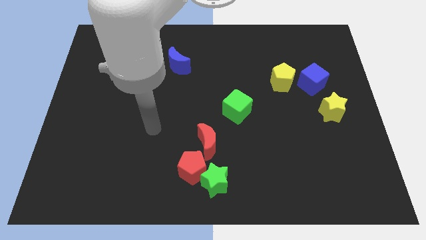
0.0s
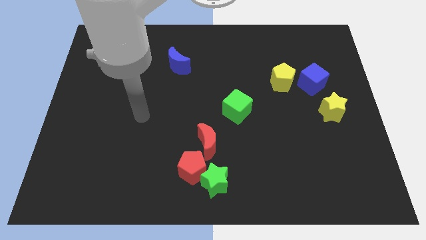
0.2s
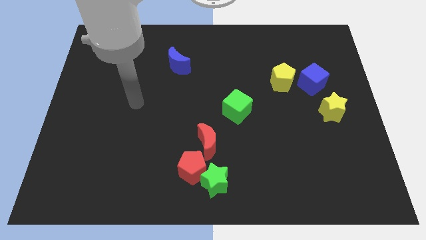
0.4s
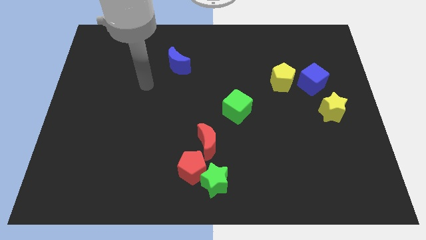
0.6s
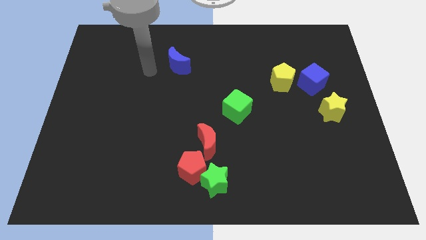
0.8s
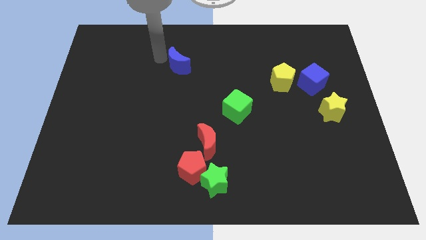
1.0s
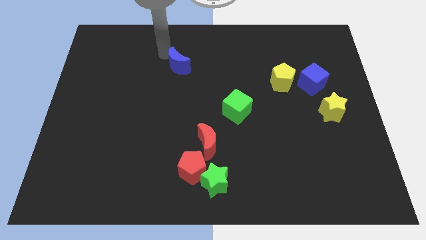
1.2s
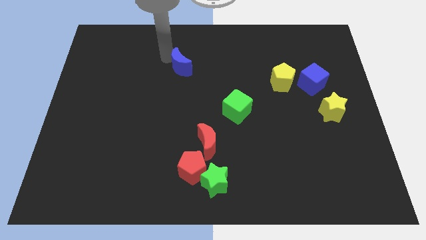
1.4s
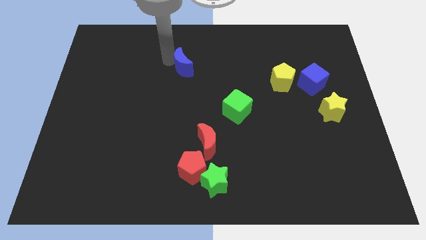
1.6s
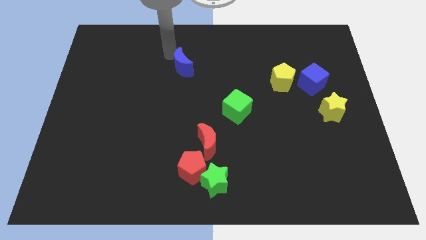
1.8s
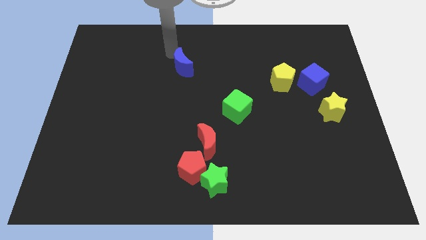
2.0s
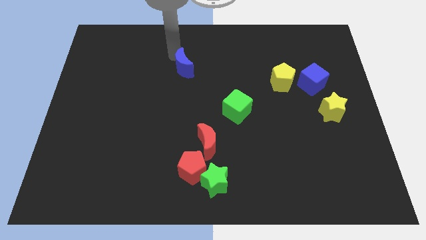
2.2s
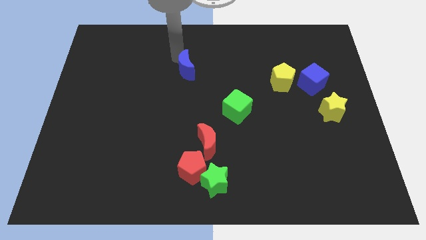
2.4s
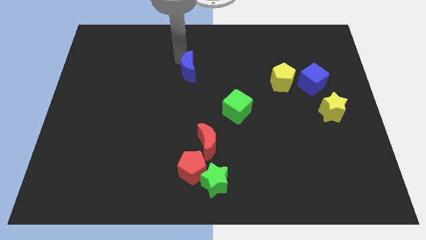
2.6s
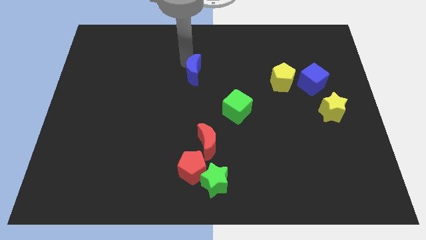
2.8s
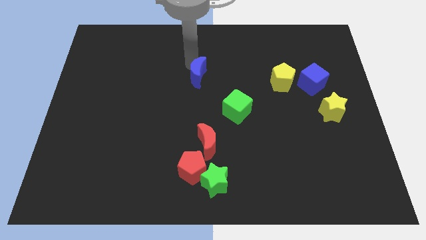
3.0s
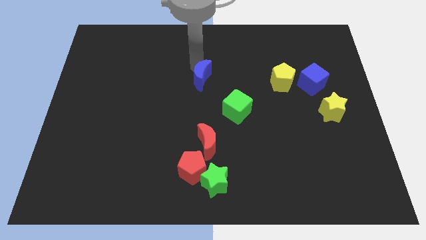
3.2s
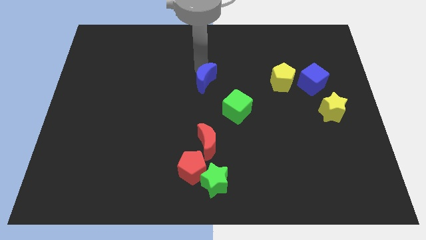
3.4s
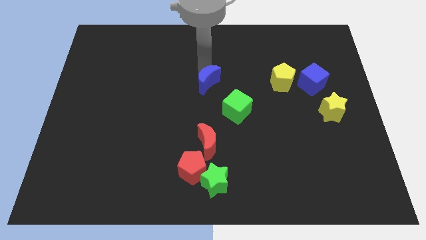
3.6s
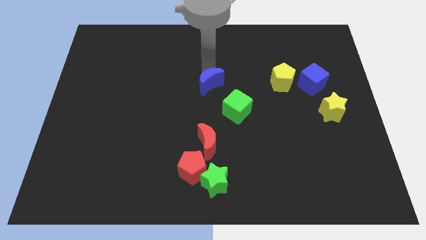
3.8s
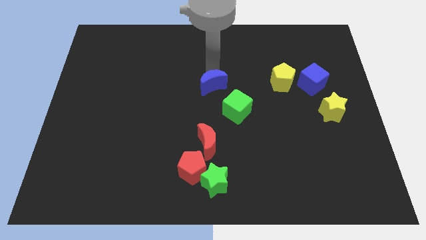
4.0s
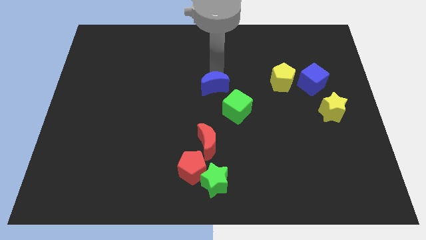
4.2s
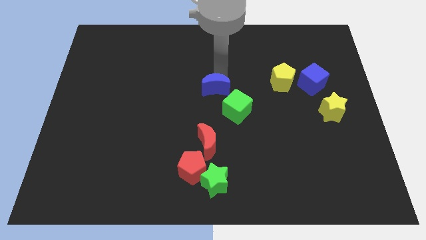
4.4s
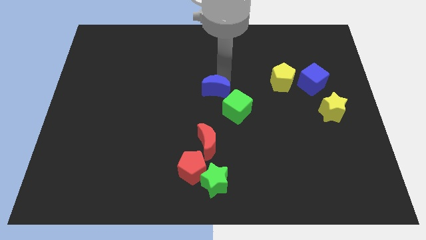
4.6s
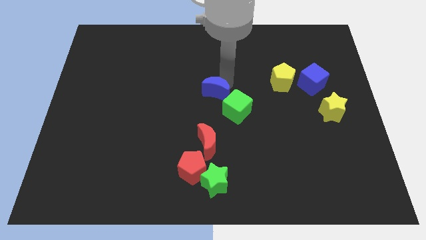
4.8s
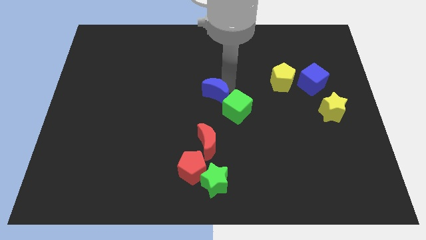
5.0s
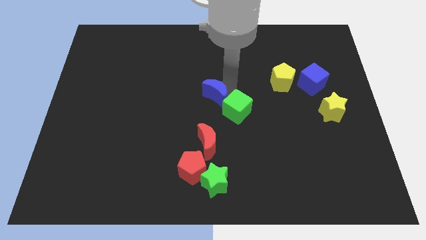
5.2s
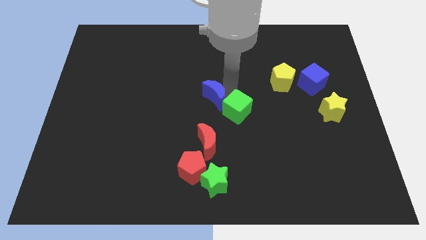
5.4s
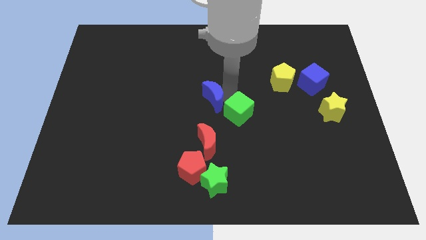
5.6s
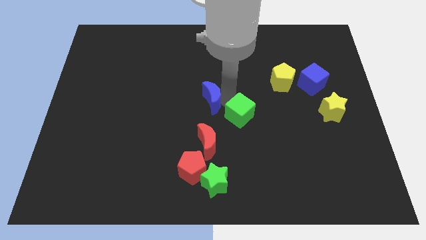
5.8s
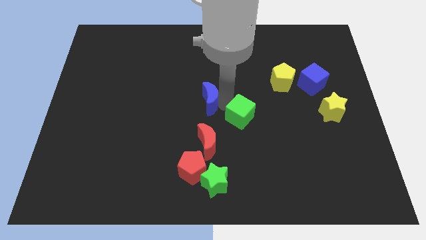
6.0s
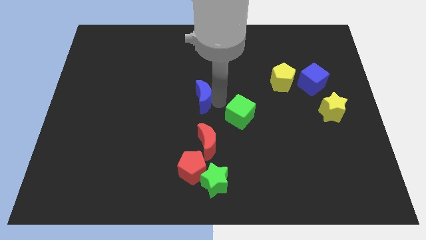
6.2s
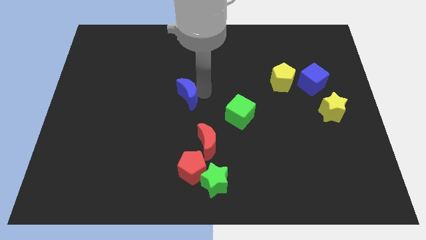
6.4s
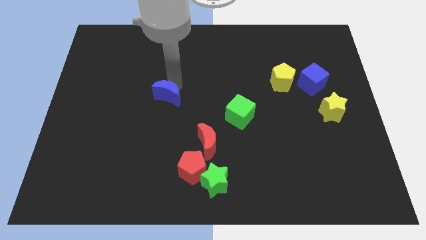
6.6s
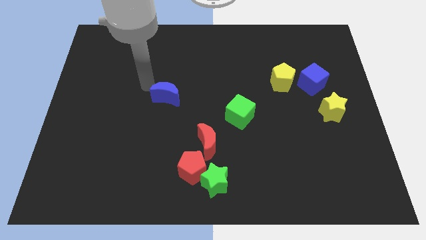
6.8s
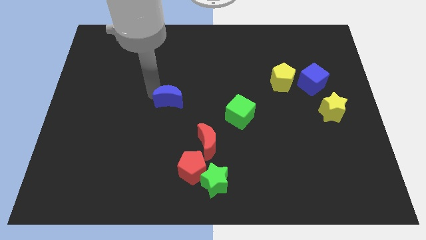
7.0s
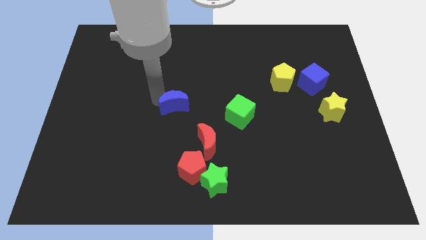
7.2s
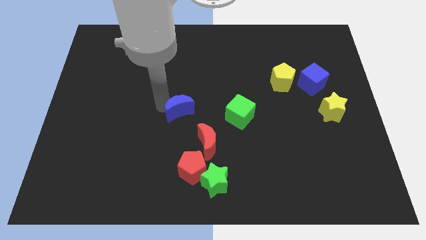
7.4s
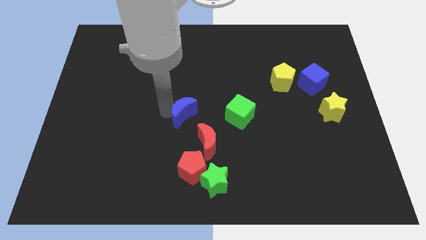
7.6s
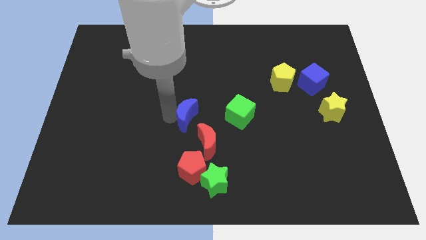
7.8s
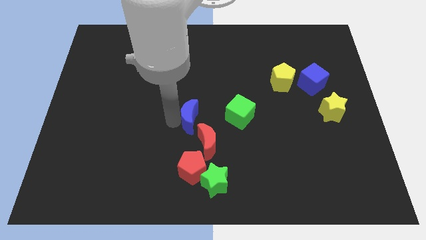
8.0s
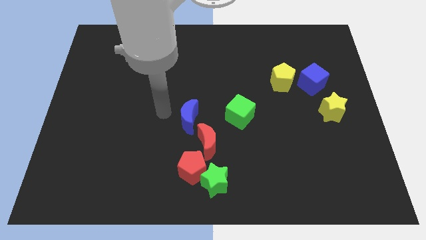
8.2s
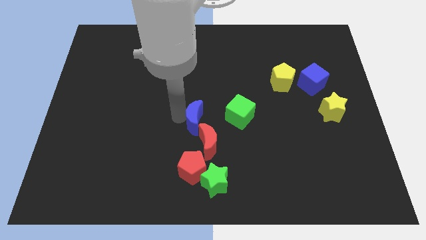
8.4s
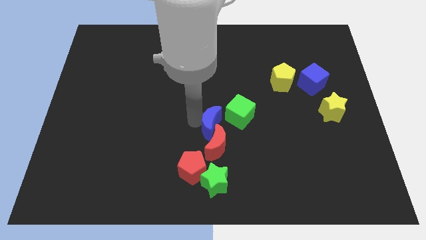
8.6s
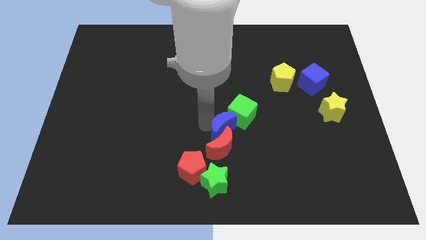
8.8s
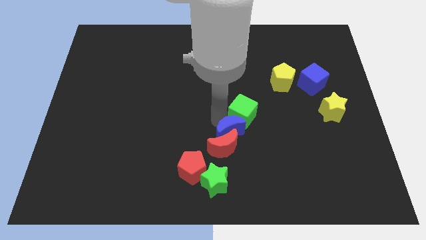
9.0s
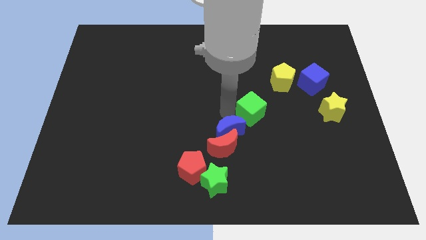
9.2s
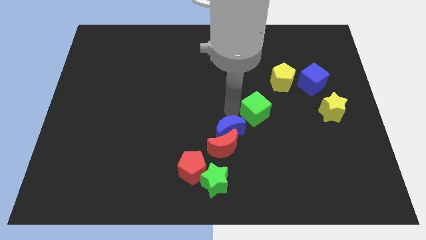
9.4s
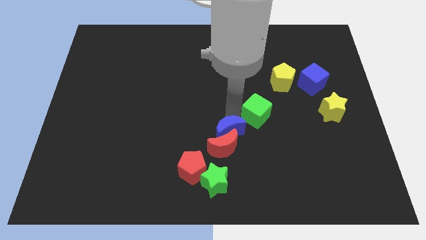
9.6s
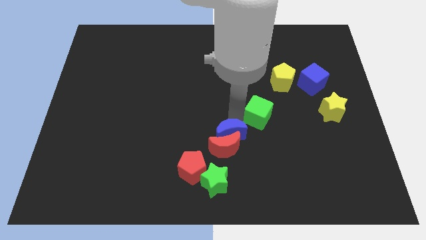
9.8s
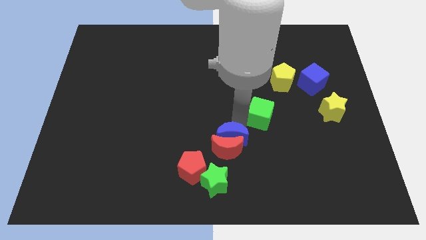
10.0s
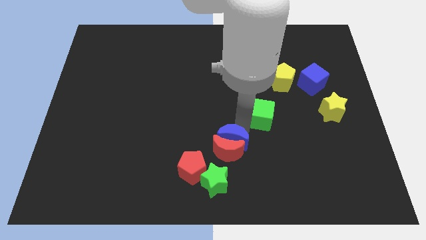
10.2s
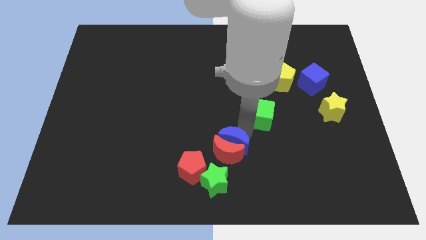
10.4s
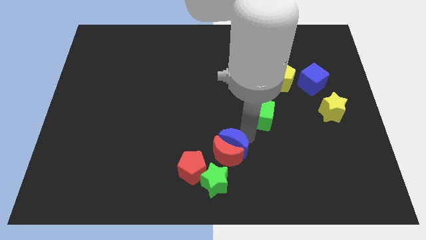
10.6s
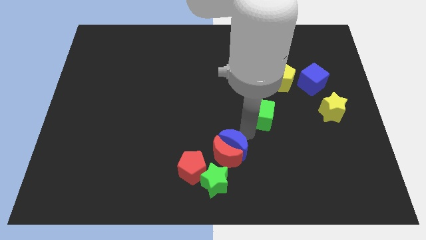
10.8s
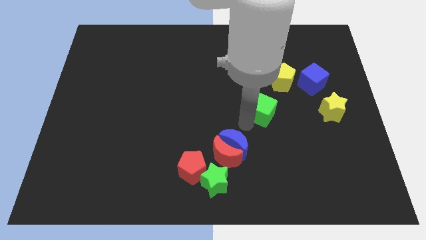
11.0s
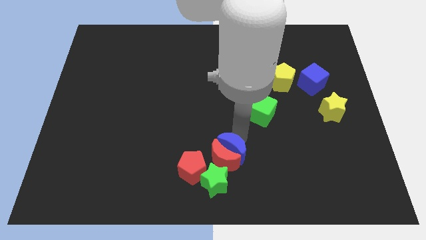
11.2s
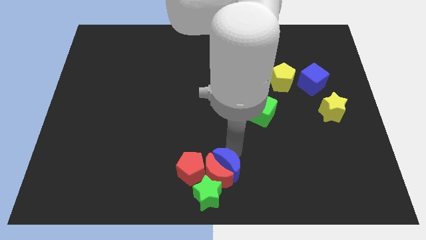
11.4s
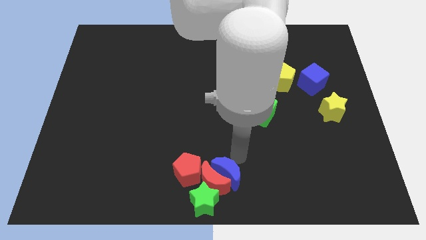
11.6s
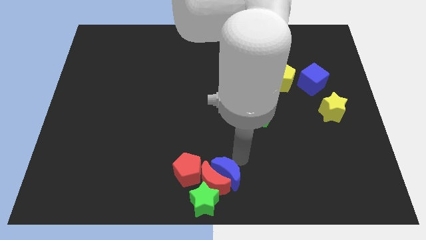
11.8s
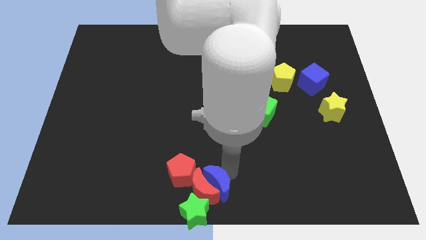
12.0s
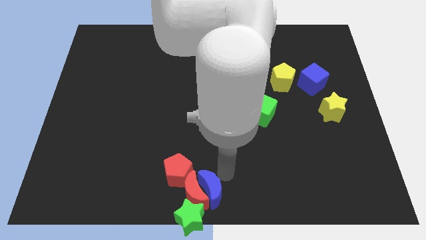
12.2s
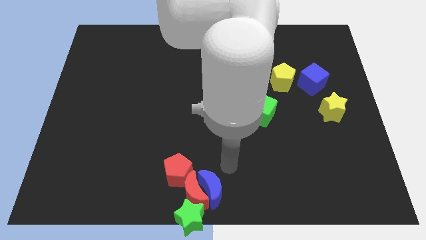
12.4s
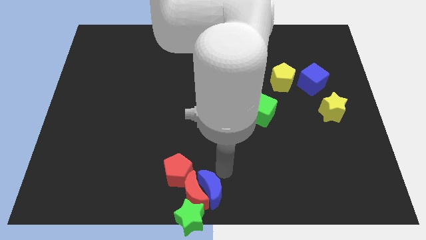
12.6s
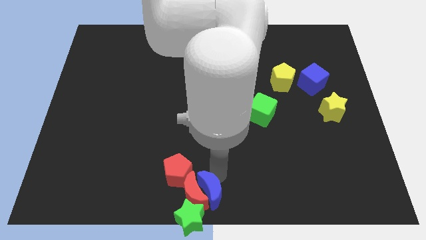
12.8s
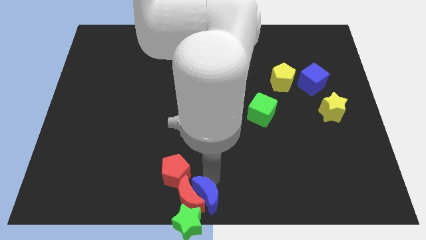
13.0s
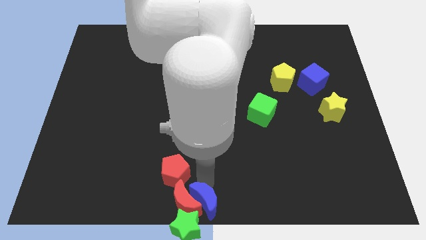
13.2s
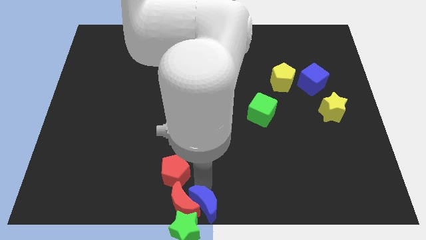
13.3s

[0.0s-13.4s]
put the blue moon close to the green star
